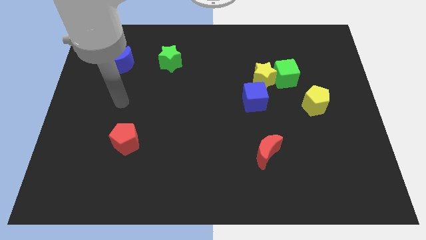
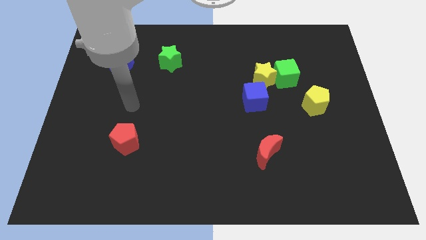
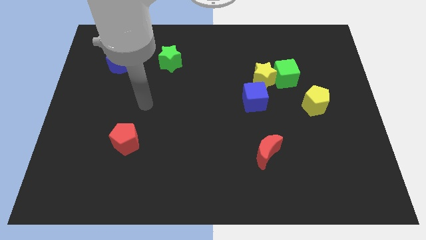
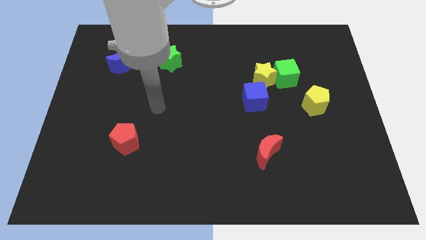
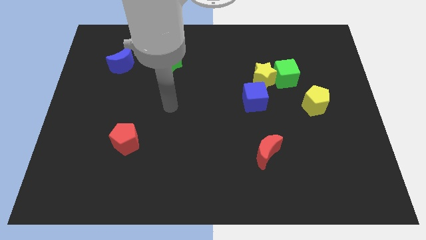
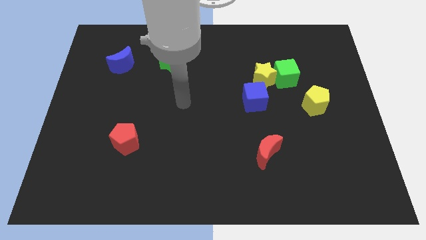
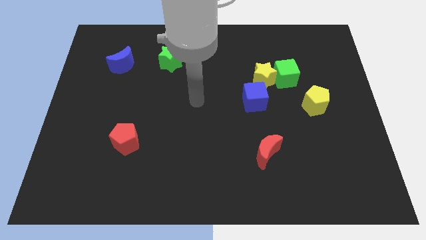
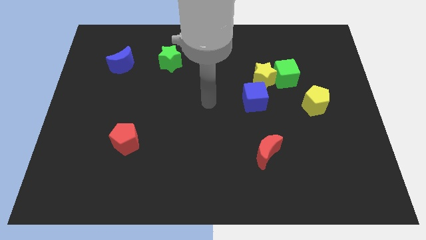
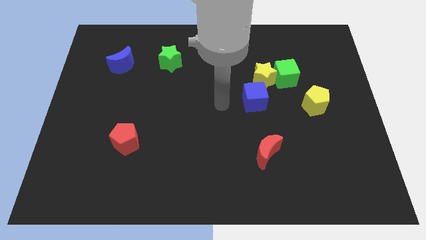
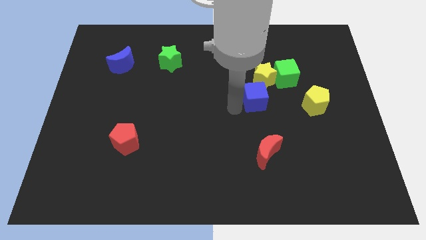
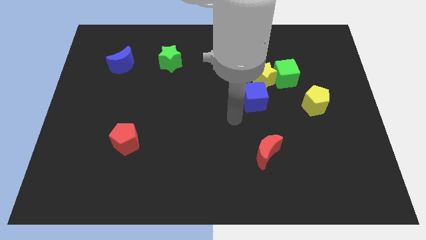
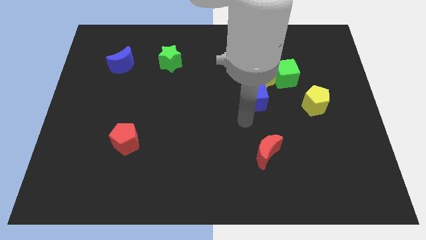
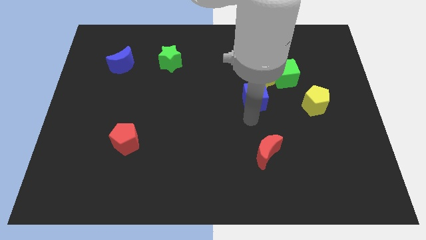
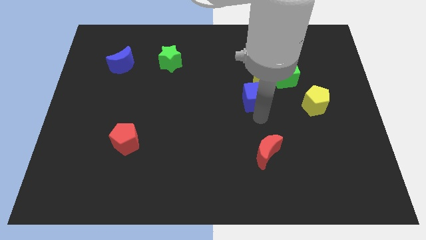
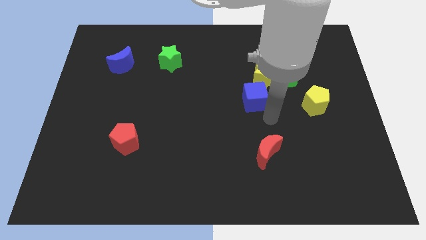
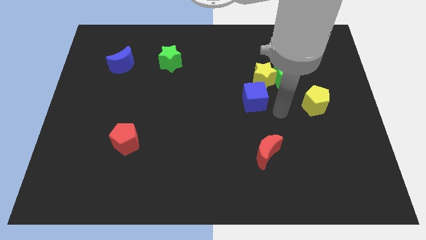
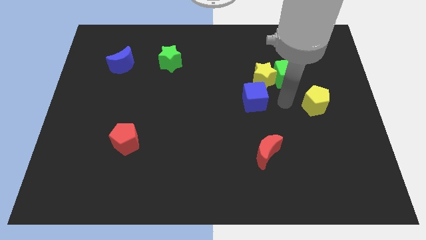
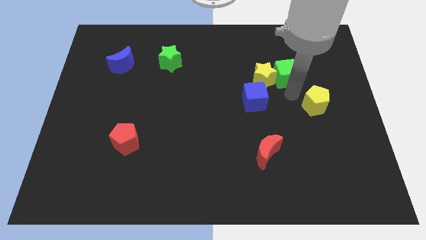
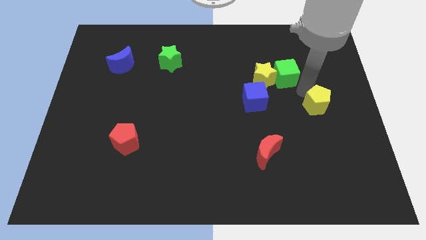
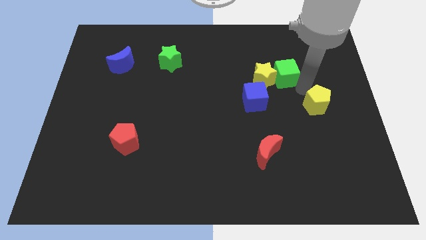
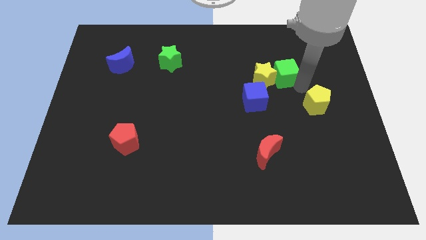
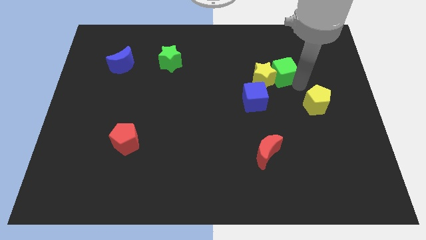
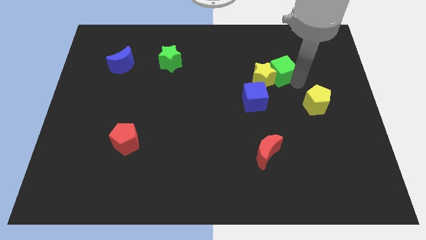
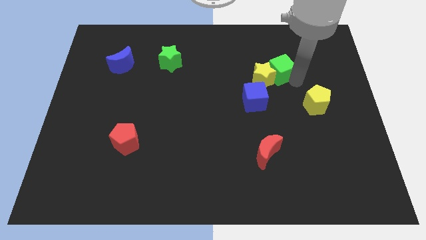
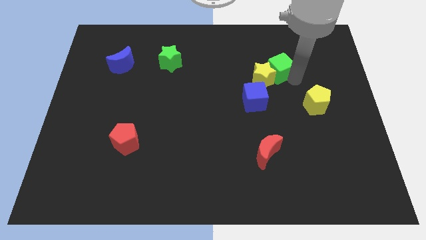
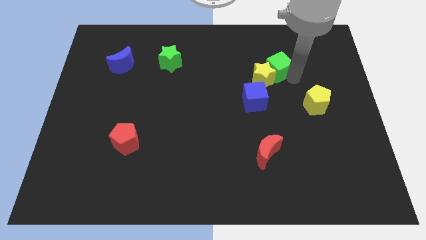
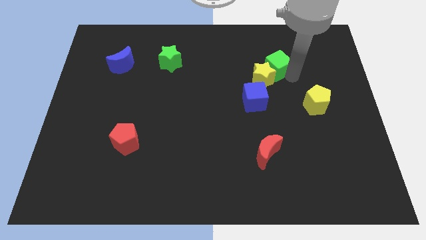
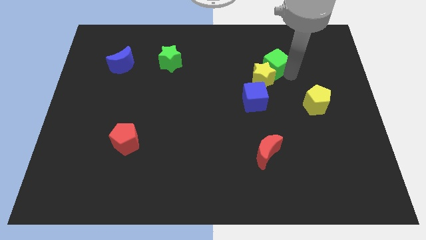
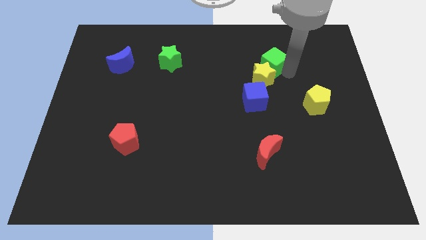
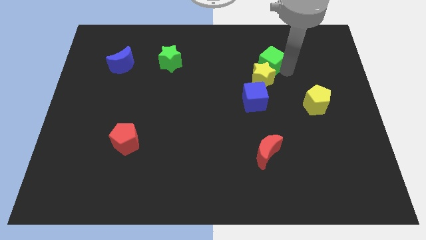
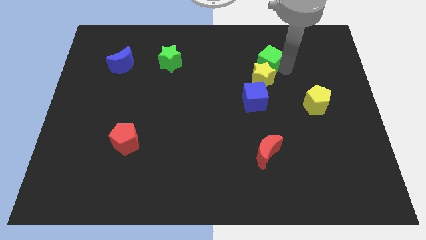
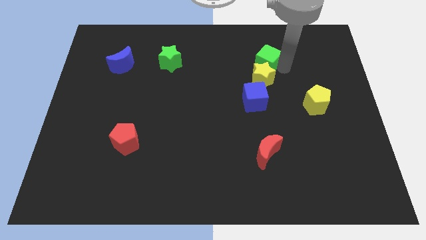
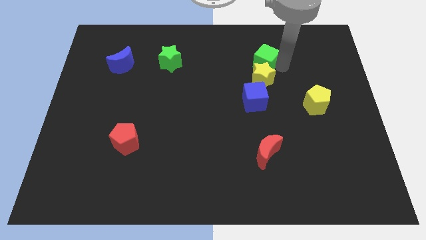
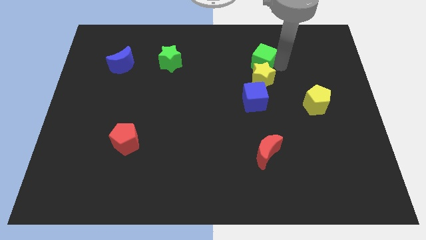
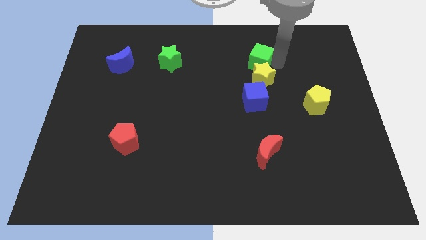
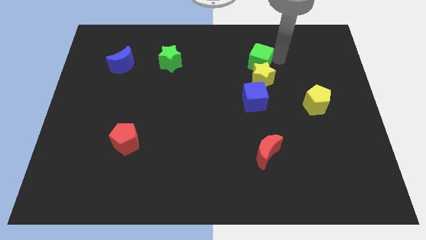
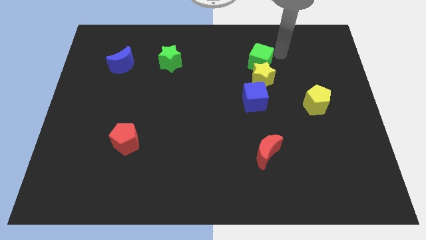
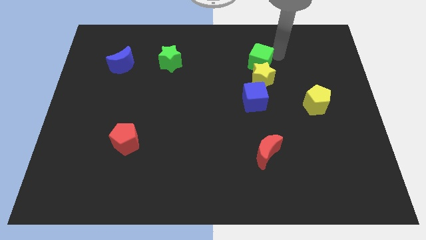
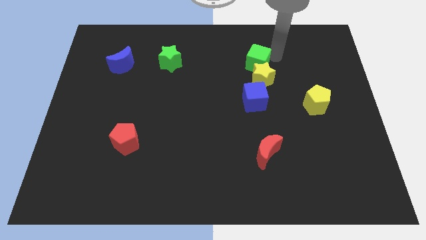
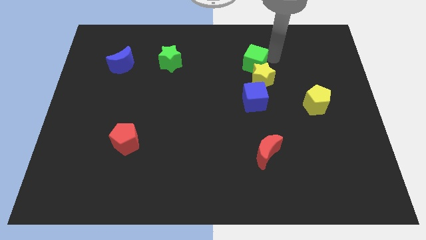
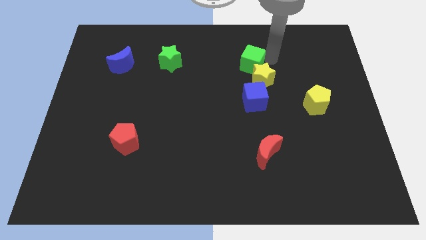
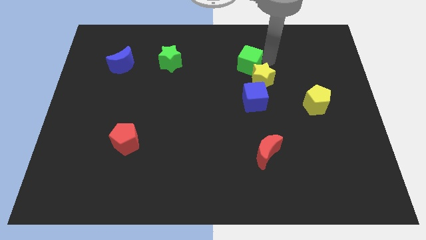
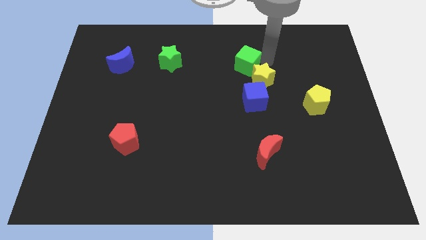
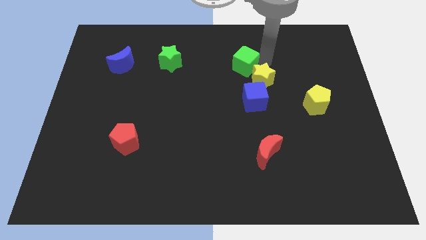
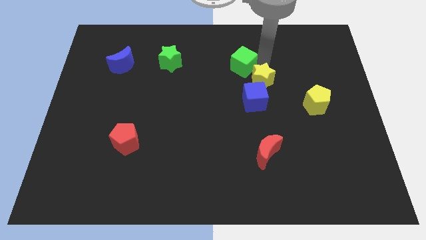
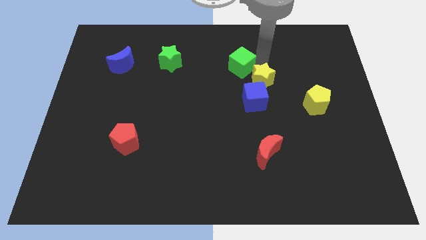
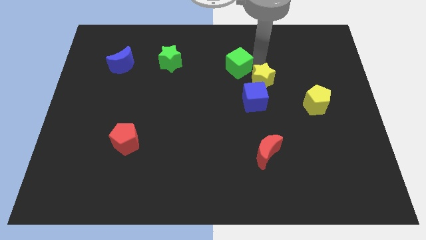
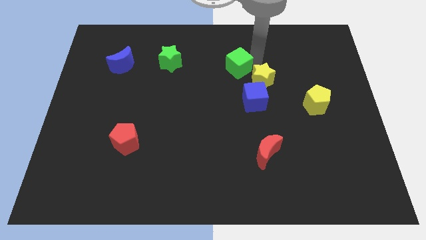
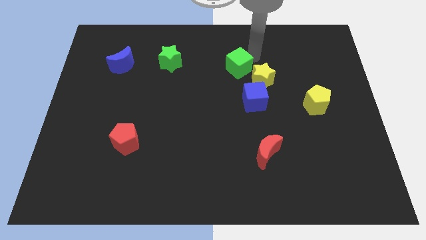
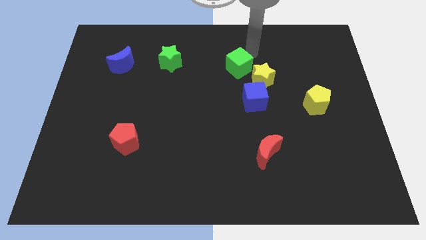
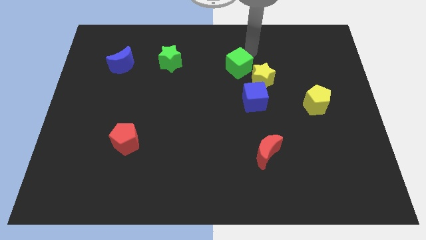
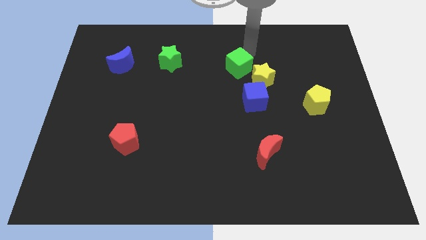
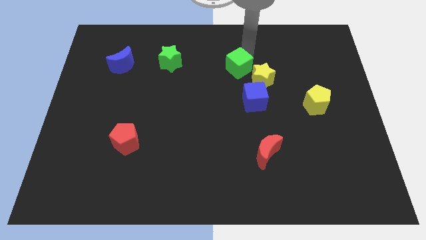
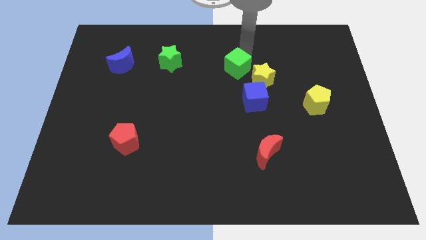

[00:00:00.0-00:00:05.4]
push the green cube to the center

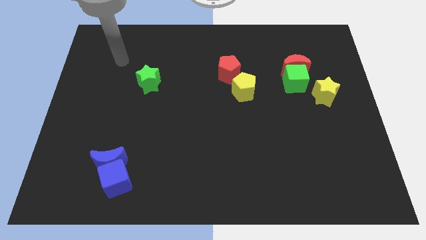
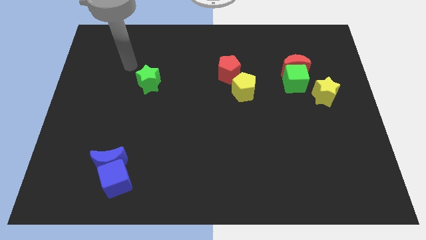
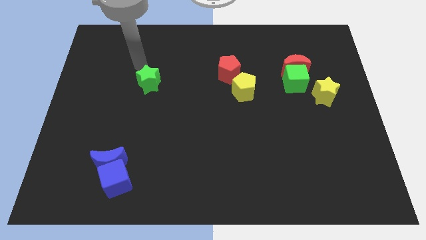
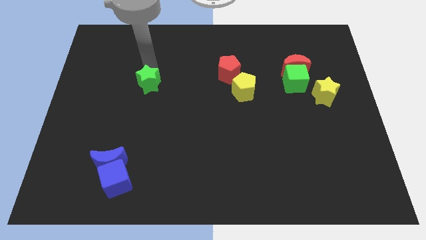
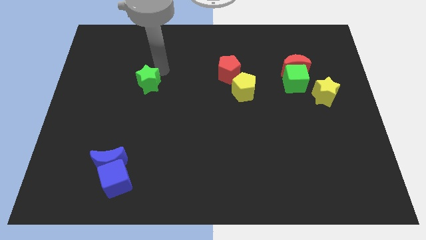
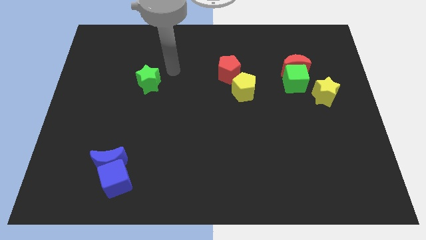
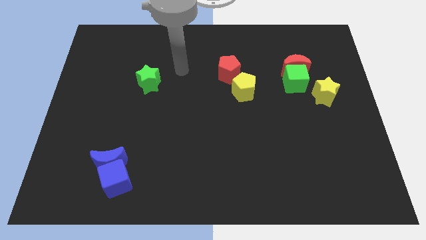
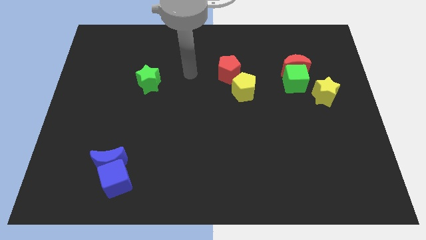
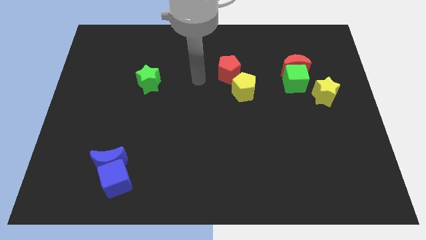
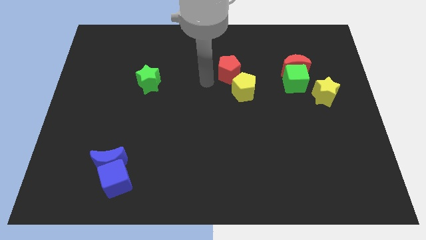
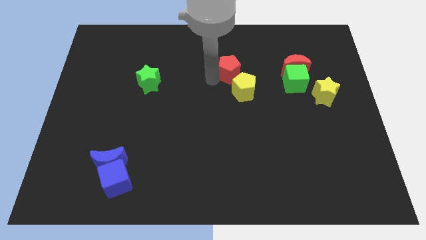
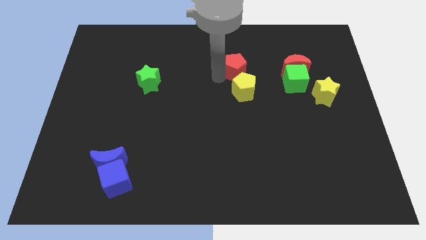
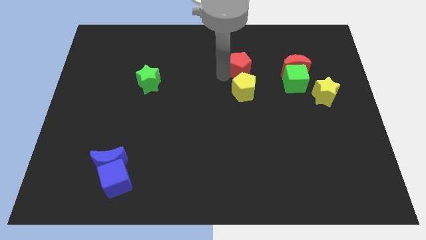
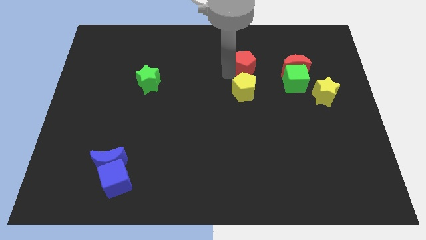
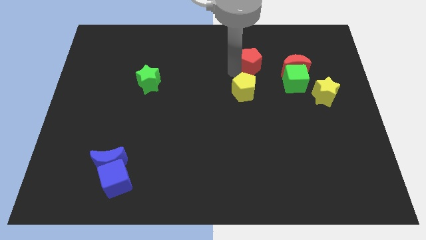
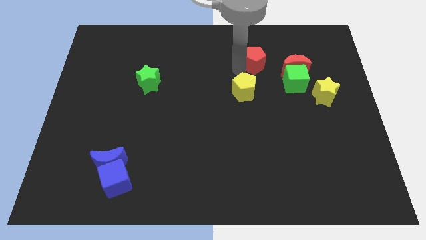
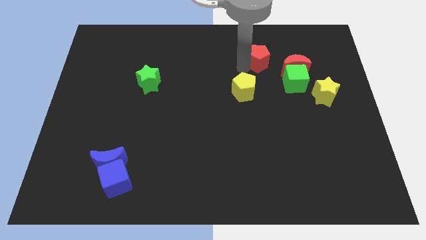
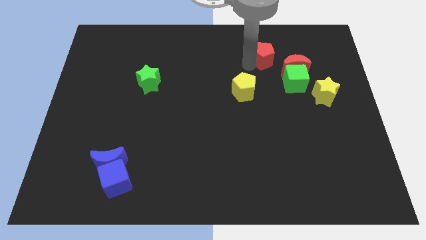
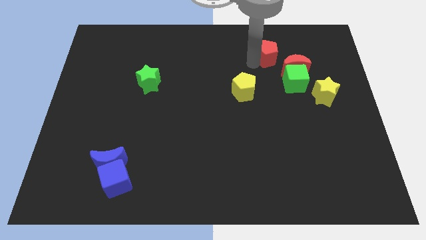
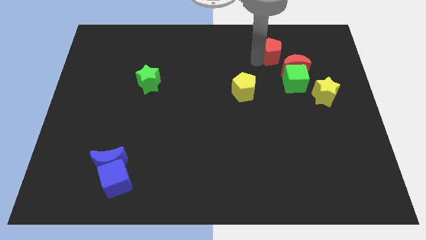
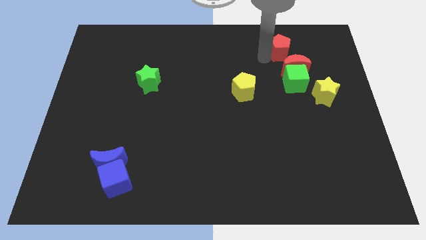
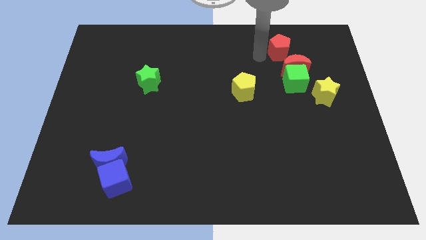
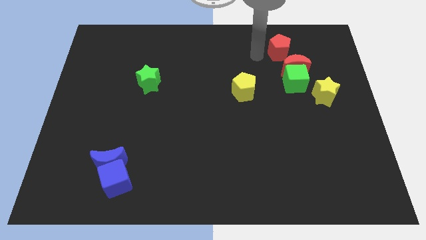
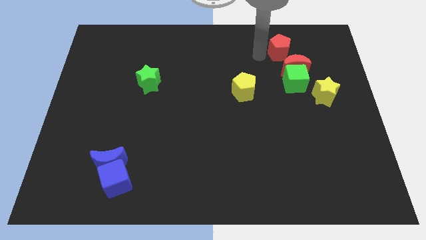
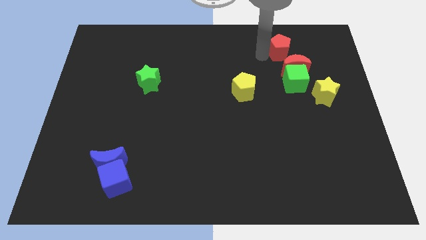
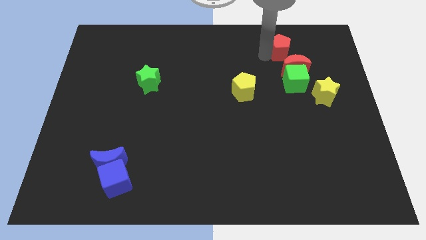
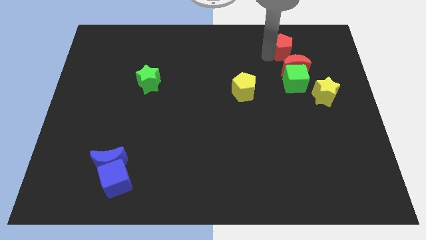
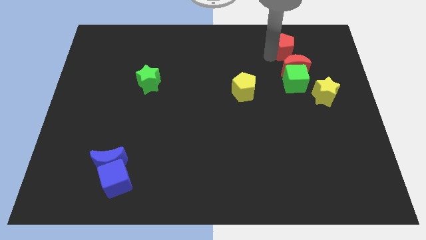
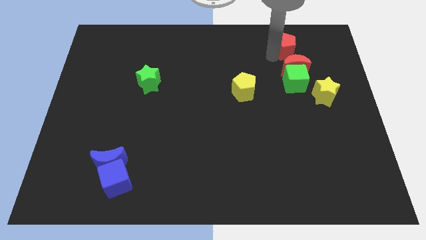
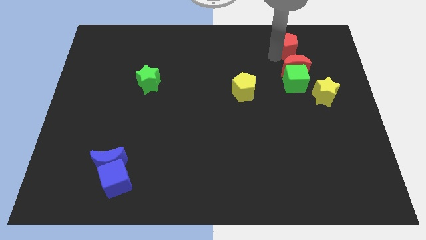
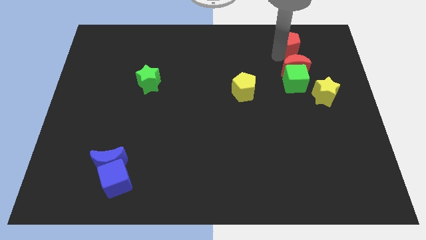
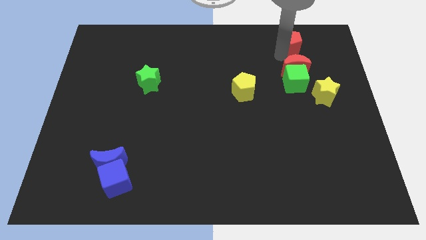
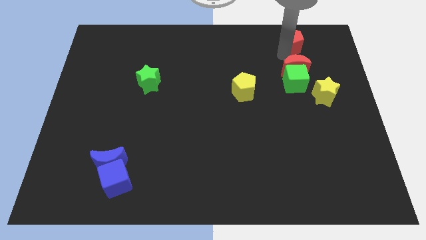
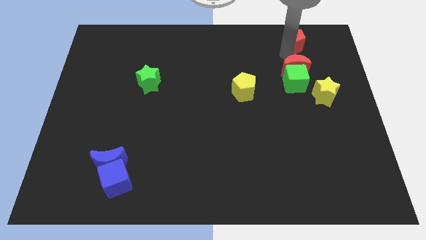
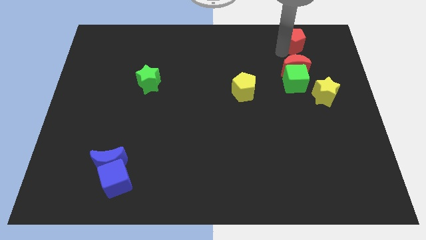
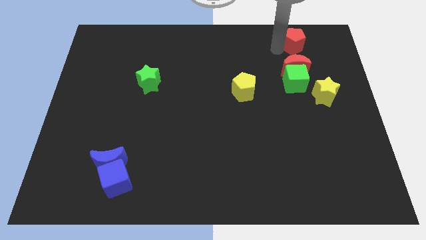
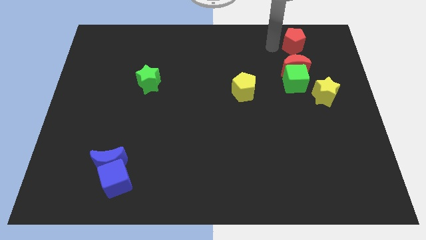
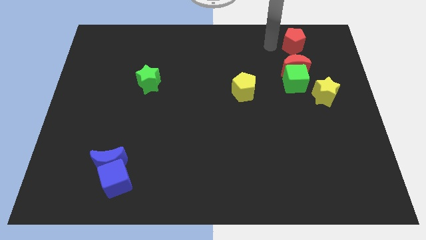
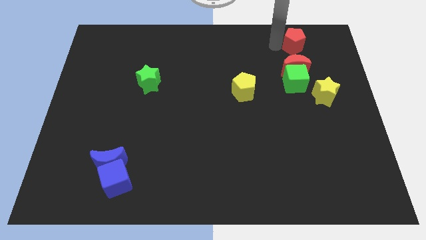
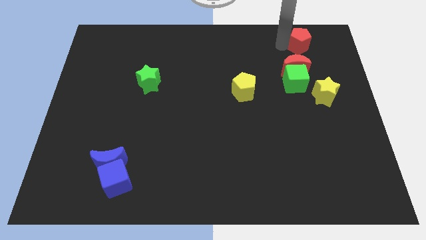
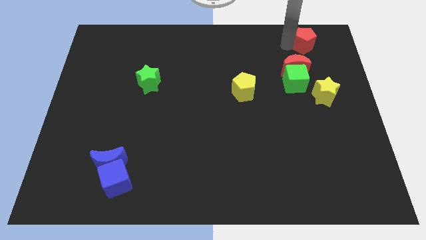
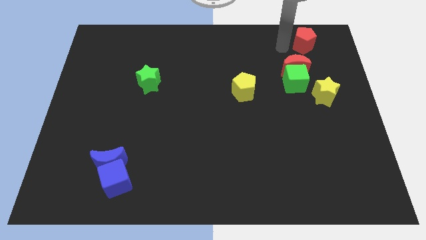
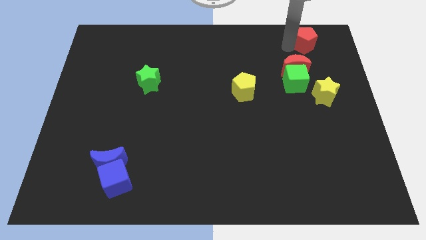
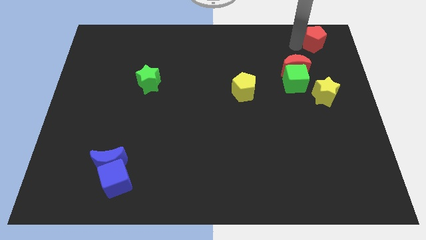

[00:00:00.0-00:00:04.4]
push the red pentagon to the top right corner
